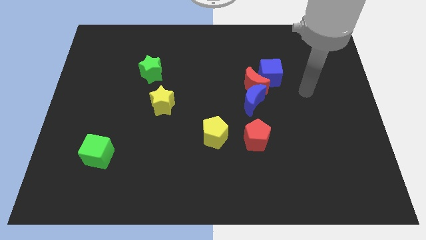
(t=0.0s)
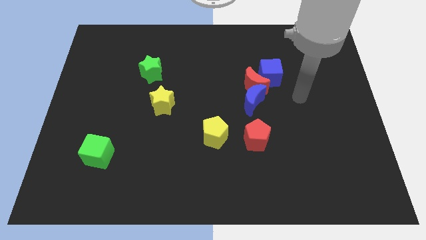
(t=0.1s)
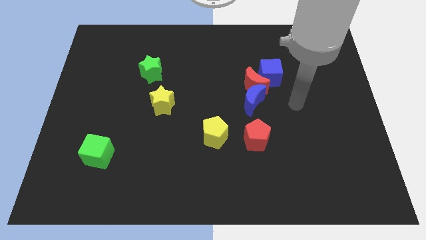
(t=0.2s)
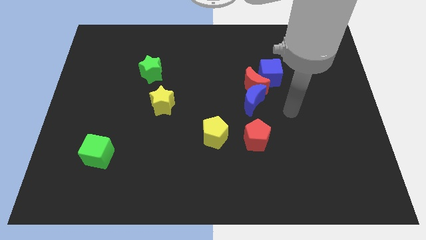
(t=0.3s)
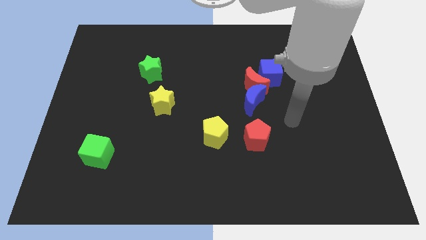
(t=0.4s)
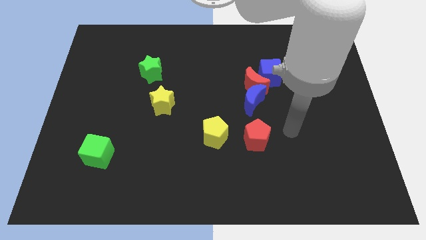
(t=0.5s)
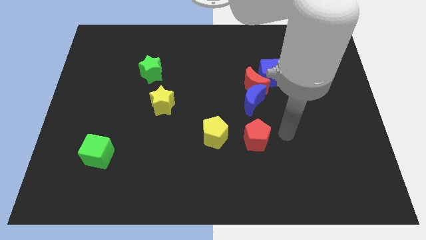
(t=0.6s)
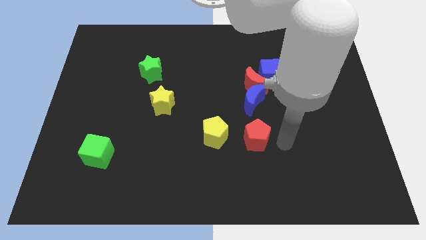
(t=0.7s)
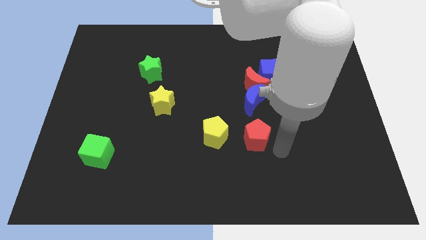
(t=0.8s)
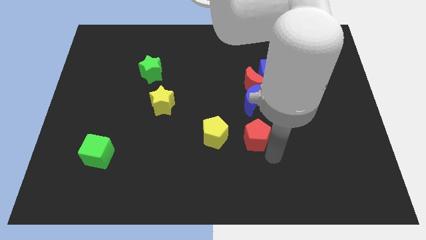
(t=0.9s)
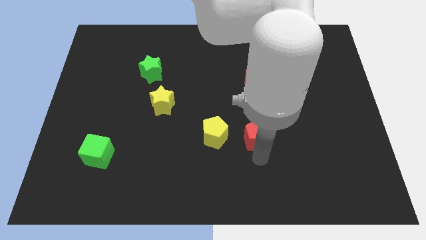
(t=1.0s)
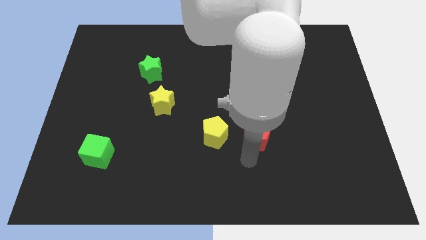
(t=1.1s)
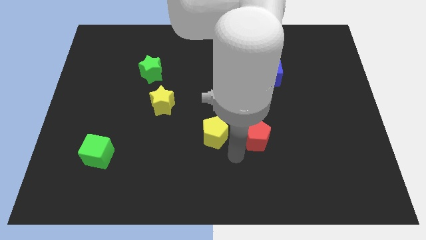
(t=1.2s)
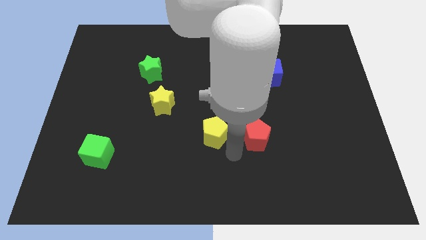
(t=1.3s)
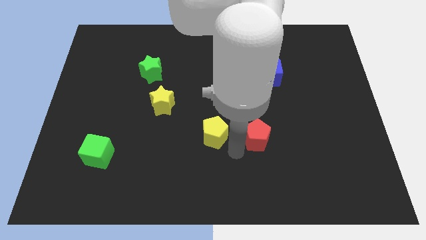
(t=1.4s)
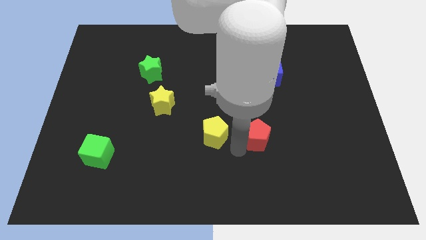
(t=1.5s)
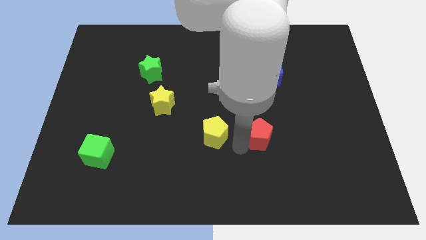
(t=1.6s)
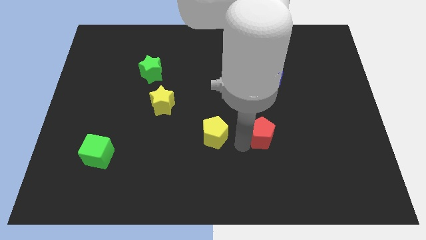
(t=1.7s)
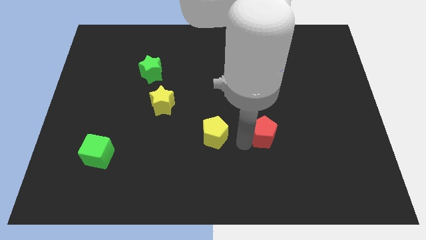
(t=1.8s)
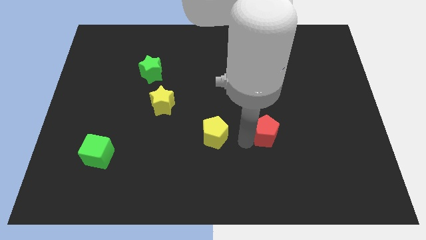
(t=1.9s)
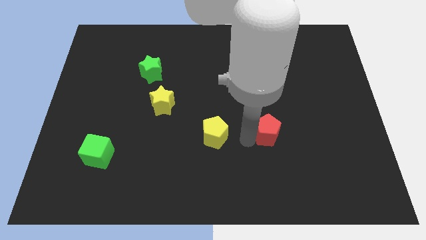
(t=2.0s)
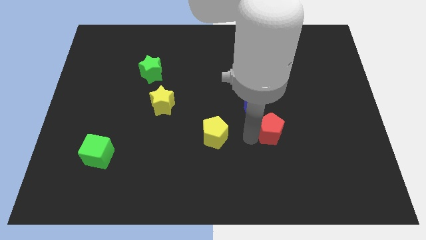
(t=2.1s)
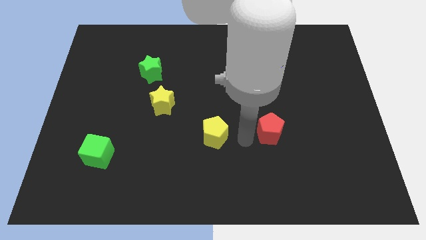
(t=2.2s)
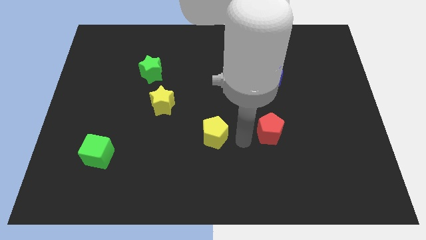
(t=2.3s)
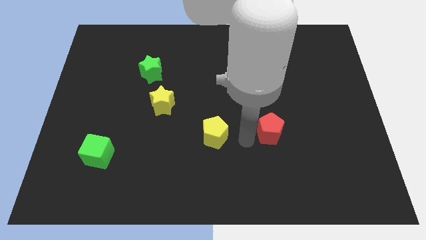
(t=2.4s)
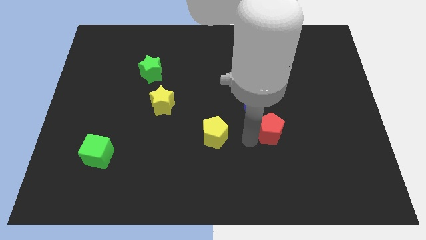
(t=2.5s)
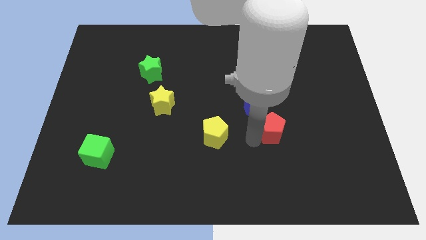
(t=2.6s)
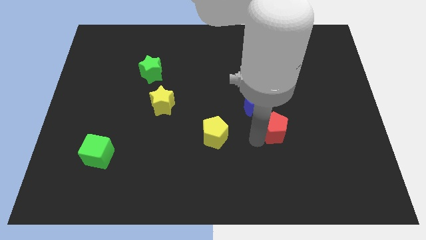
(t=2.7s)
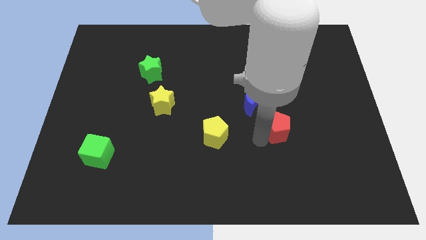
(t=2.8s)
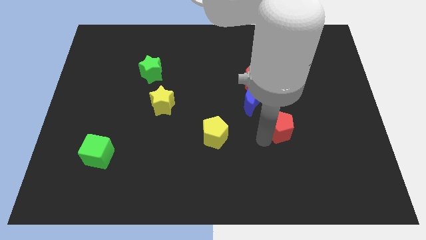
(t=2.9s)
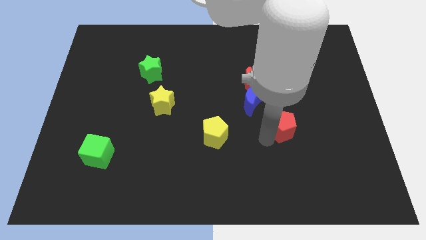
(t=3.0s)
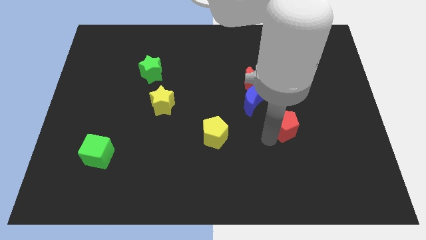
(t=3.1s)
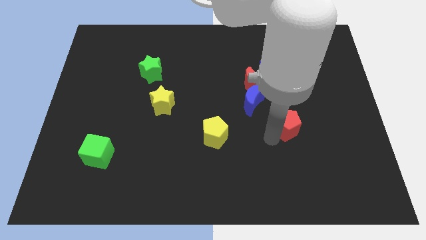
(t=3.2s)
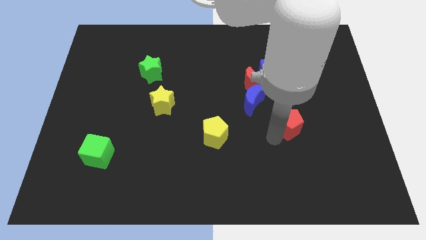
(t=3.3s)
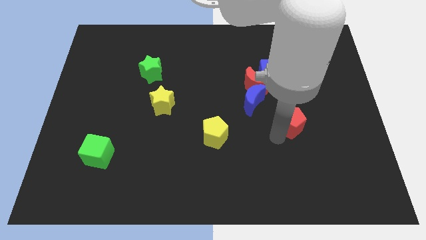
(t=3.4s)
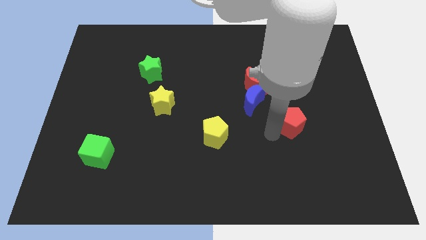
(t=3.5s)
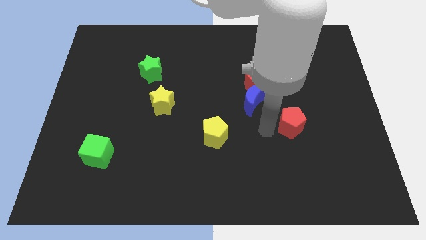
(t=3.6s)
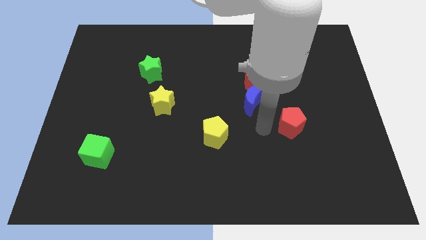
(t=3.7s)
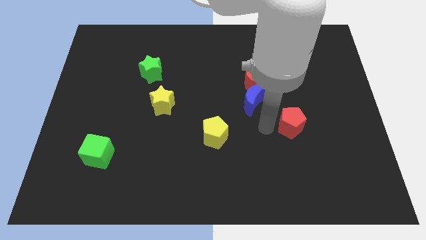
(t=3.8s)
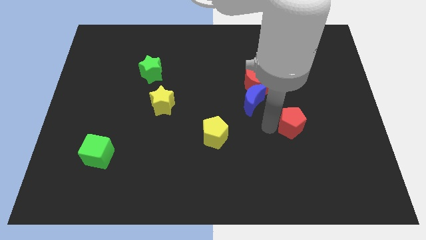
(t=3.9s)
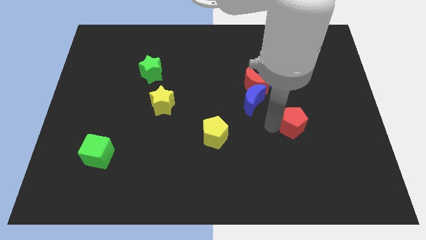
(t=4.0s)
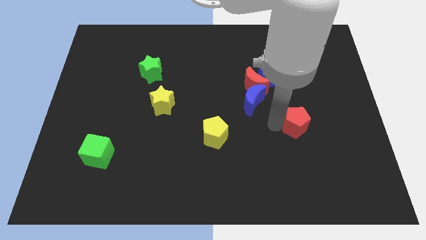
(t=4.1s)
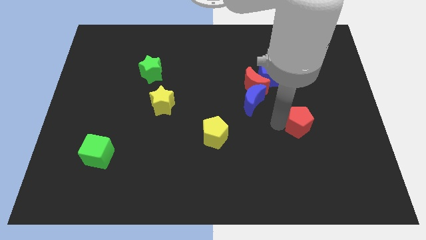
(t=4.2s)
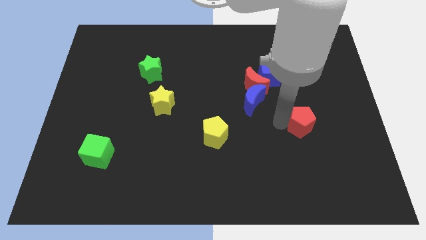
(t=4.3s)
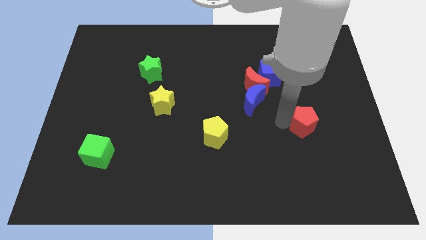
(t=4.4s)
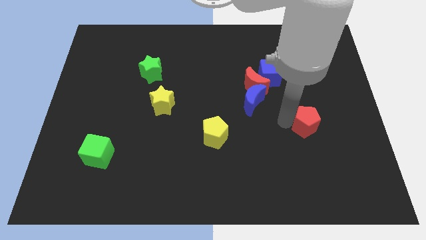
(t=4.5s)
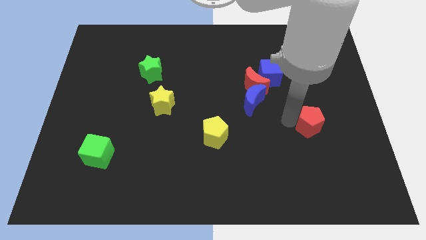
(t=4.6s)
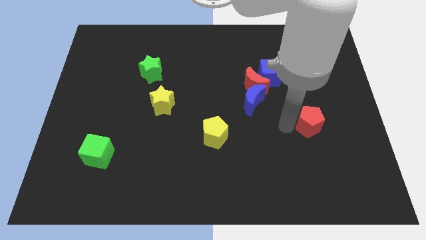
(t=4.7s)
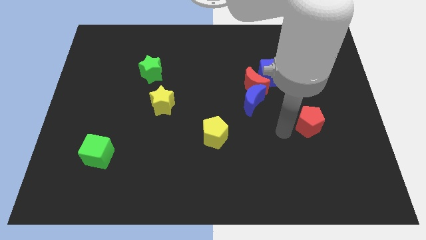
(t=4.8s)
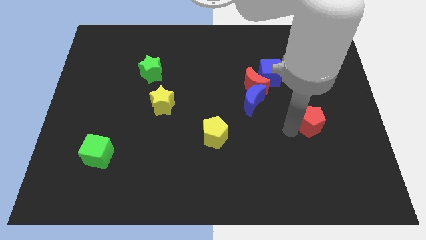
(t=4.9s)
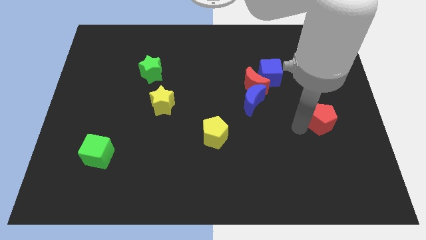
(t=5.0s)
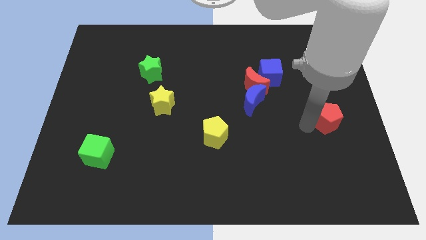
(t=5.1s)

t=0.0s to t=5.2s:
slide the red pentagon to the center right

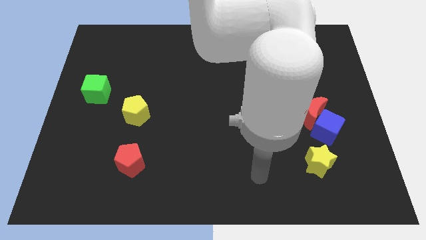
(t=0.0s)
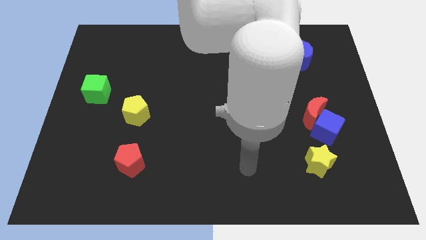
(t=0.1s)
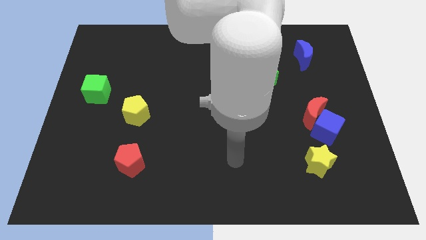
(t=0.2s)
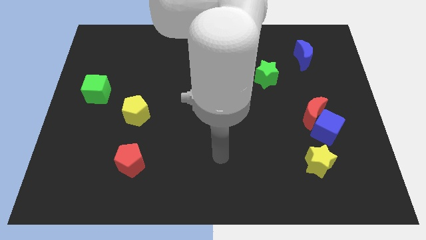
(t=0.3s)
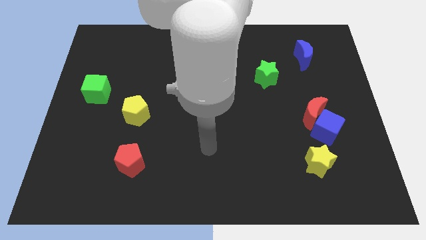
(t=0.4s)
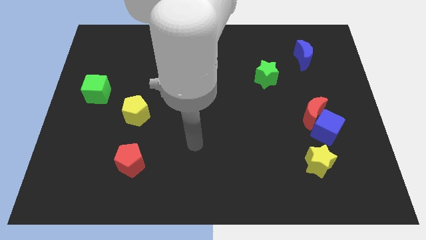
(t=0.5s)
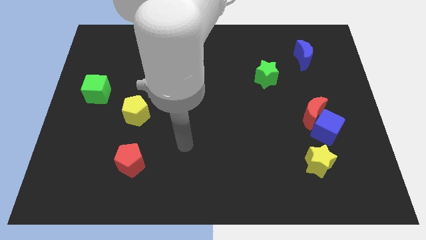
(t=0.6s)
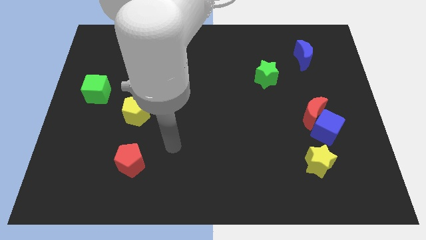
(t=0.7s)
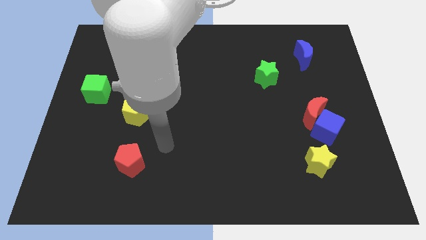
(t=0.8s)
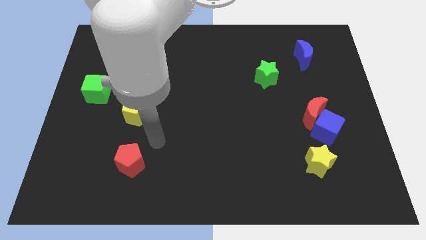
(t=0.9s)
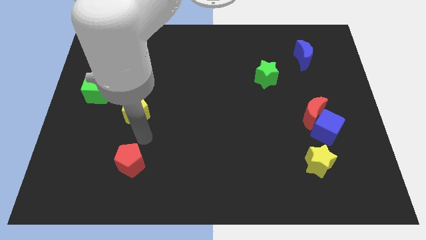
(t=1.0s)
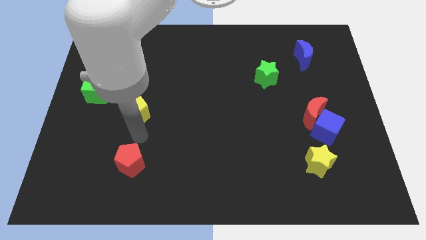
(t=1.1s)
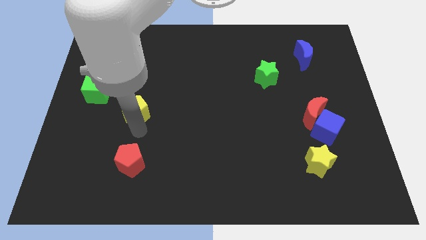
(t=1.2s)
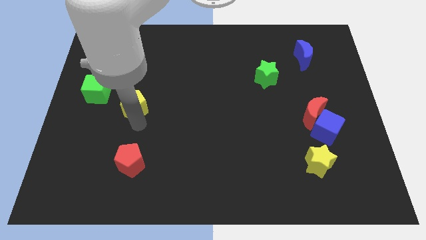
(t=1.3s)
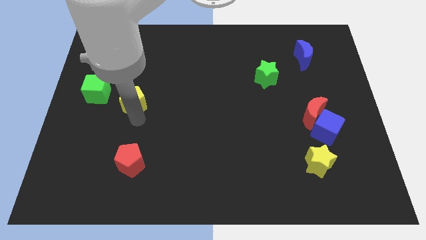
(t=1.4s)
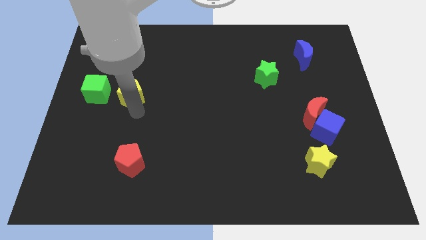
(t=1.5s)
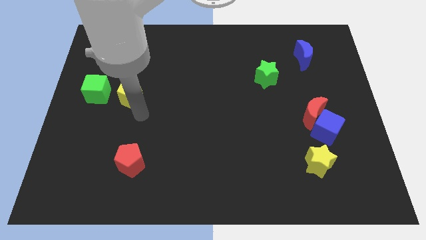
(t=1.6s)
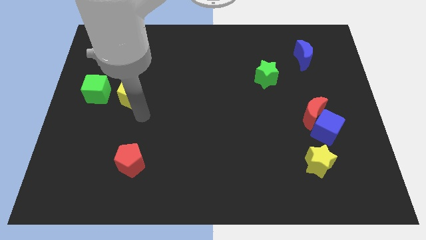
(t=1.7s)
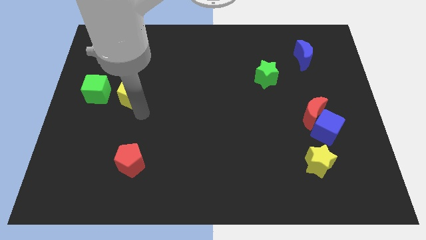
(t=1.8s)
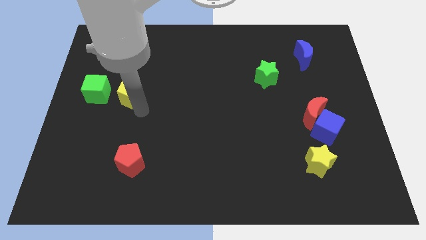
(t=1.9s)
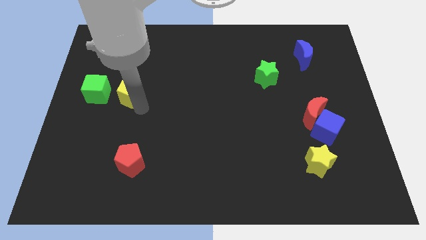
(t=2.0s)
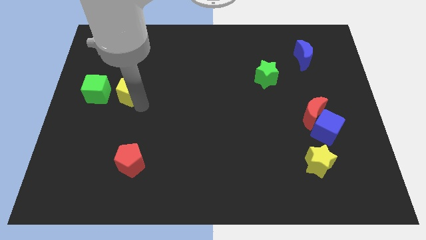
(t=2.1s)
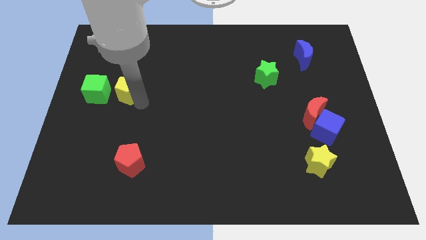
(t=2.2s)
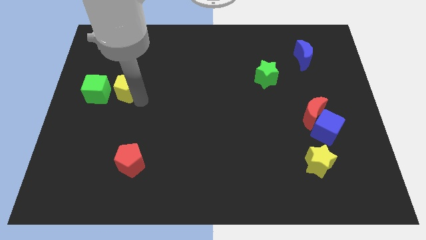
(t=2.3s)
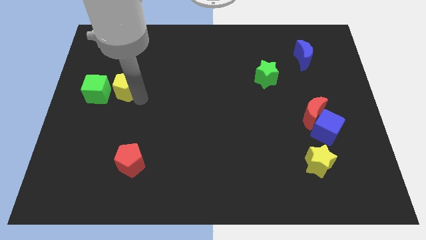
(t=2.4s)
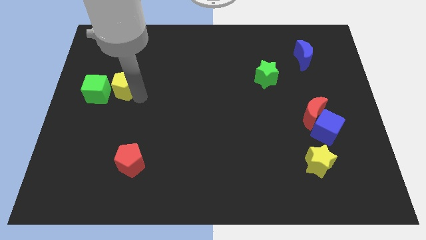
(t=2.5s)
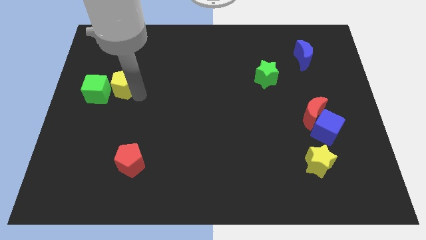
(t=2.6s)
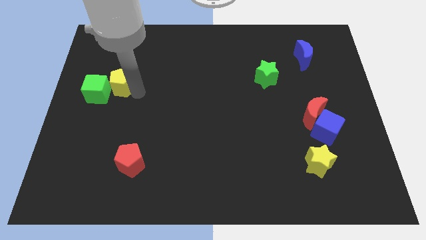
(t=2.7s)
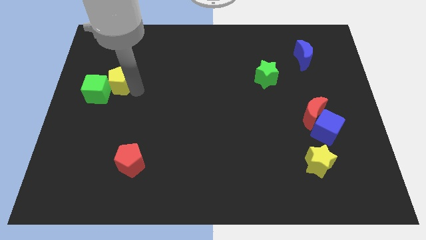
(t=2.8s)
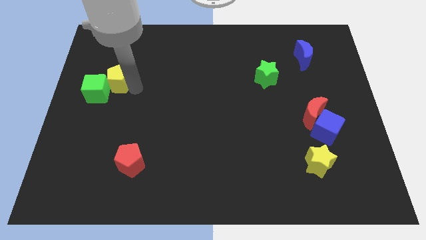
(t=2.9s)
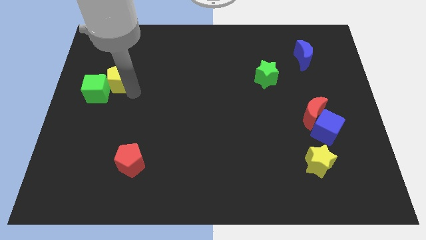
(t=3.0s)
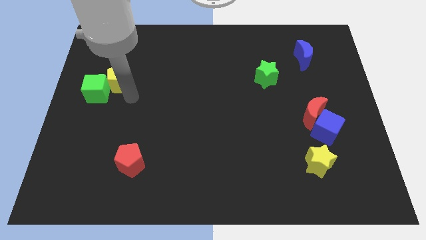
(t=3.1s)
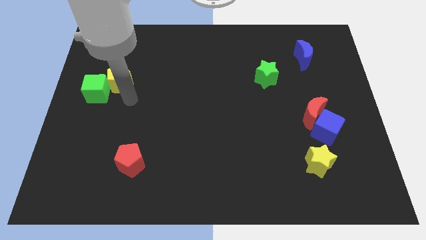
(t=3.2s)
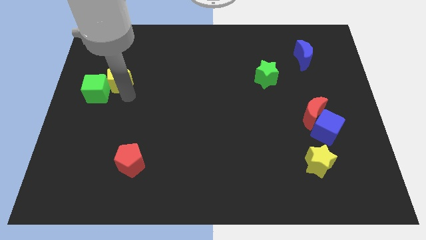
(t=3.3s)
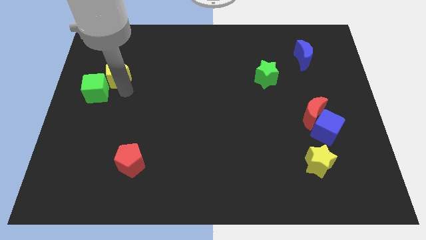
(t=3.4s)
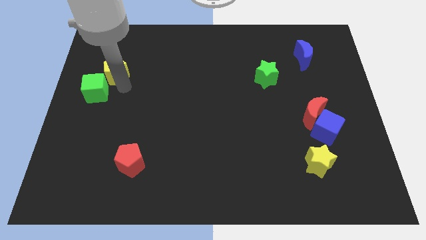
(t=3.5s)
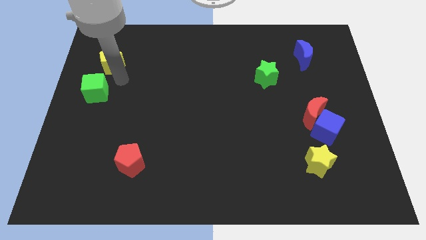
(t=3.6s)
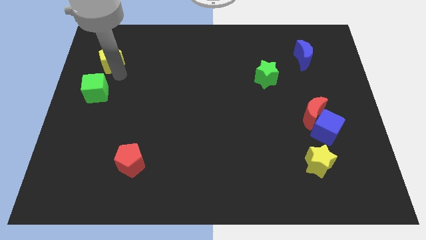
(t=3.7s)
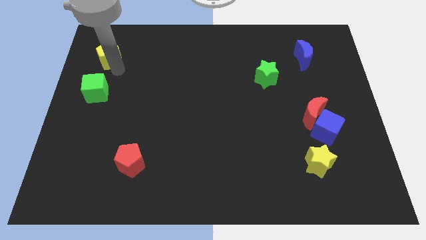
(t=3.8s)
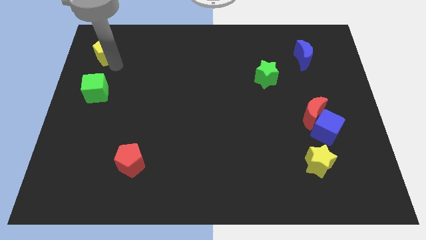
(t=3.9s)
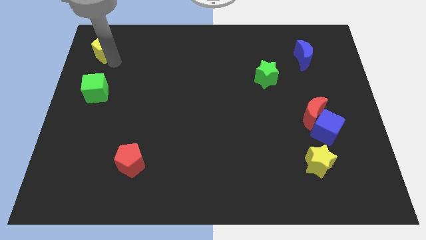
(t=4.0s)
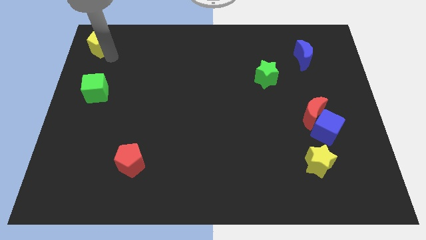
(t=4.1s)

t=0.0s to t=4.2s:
put the yellow pentagon to the top left corner
